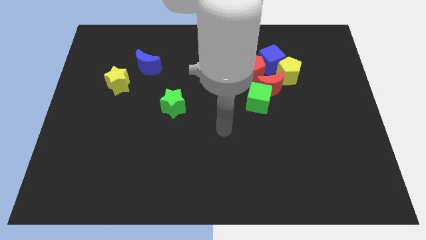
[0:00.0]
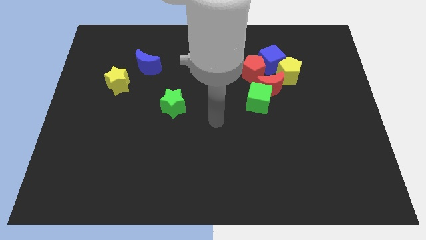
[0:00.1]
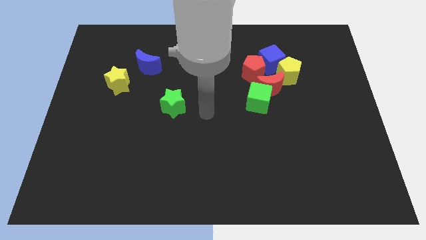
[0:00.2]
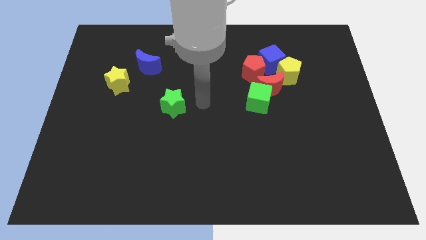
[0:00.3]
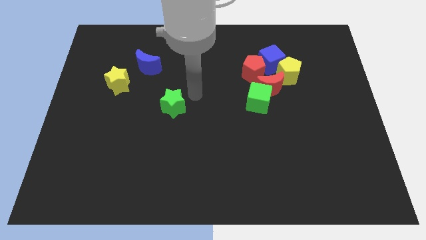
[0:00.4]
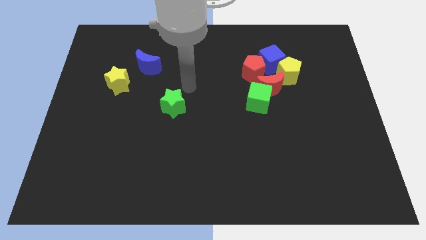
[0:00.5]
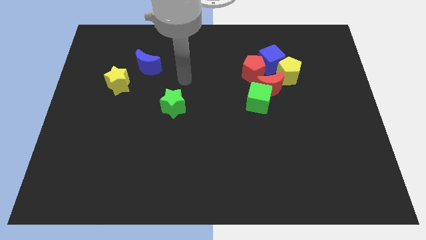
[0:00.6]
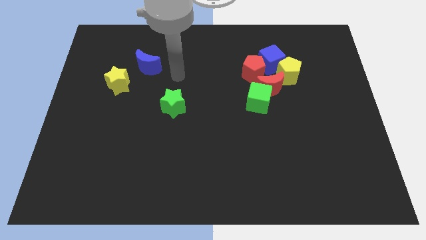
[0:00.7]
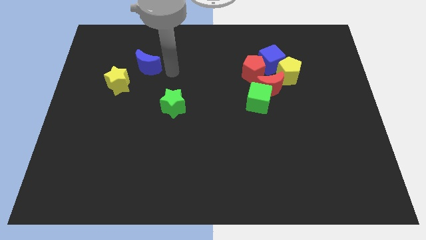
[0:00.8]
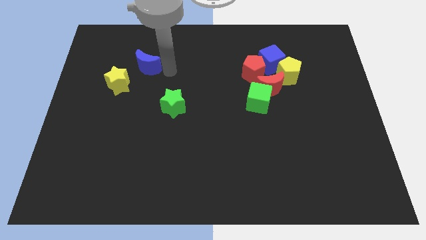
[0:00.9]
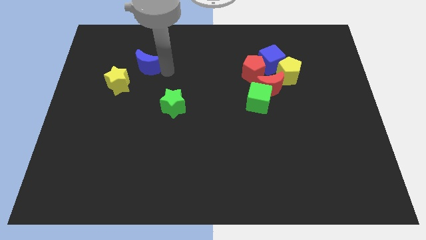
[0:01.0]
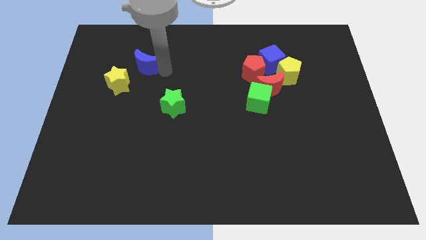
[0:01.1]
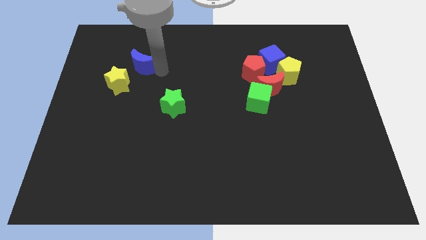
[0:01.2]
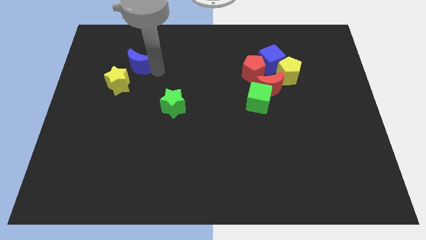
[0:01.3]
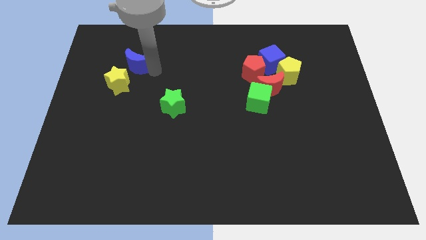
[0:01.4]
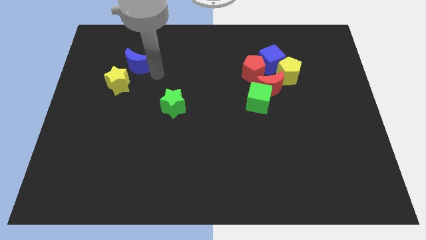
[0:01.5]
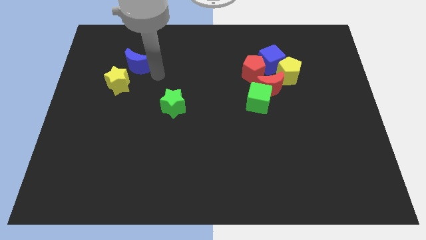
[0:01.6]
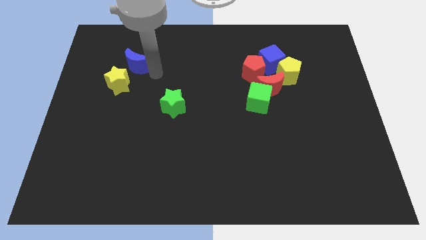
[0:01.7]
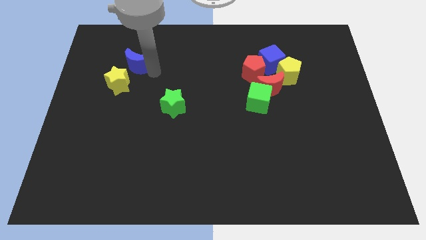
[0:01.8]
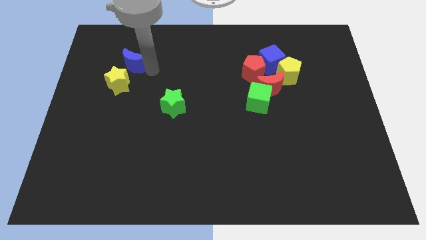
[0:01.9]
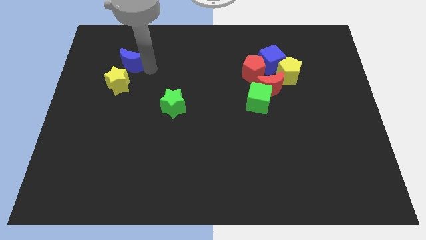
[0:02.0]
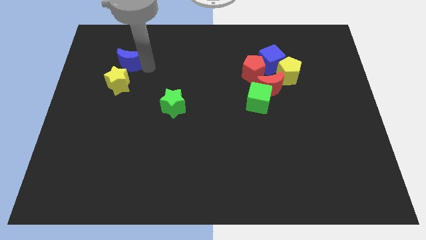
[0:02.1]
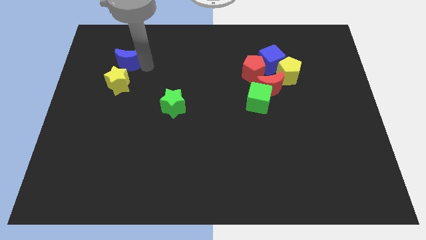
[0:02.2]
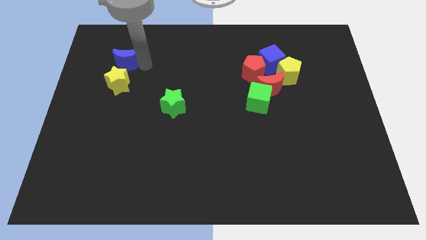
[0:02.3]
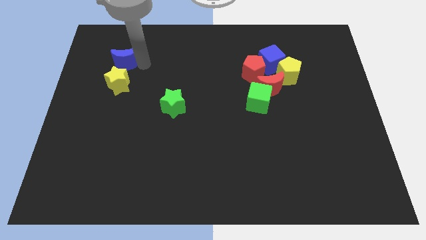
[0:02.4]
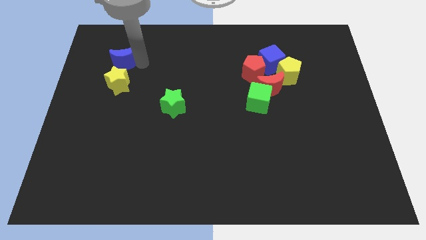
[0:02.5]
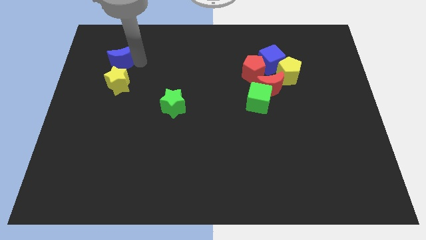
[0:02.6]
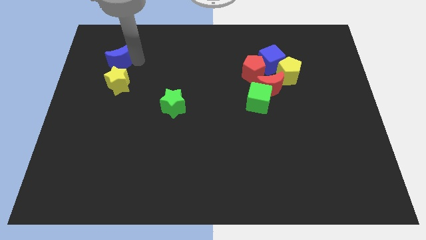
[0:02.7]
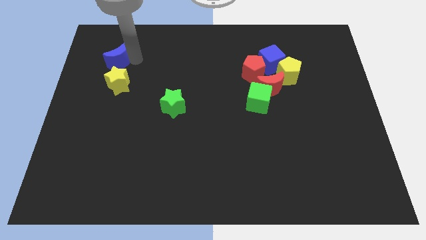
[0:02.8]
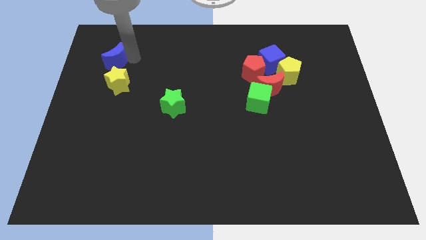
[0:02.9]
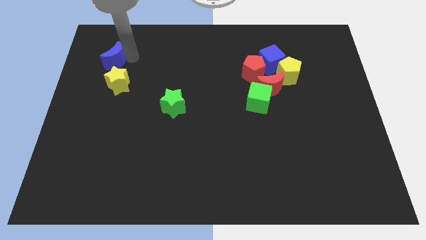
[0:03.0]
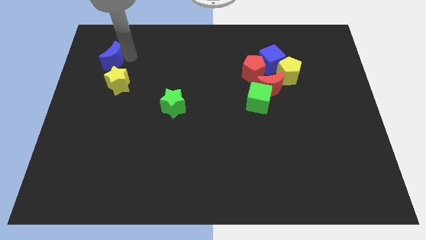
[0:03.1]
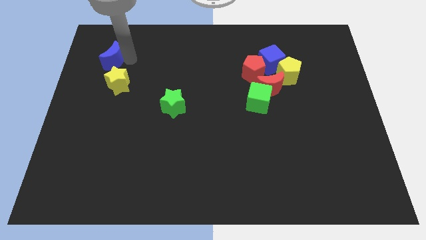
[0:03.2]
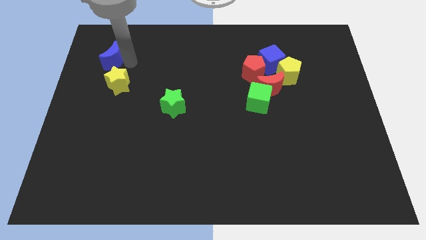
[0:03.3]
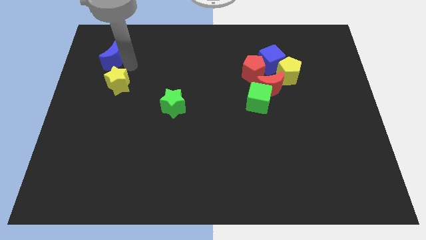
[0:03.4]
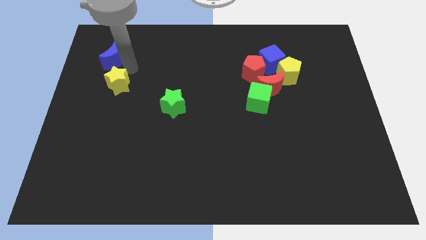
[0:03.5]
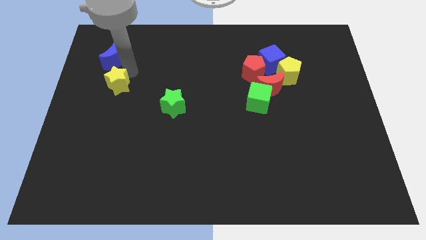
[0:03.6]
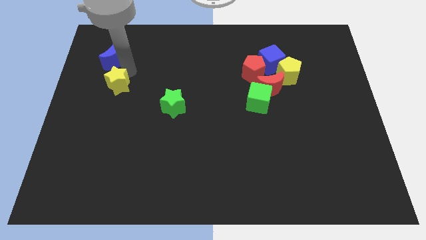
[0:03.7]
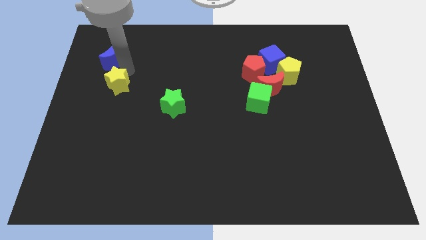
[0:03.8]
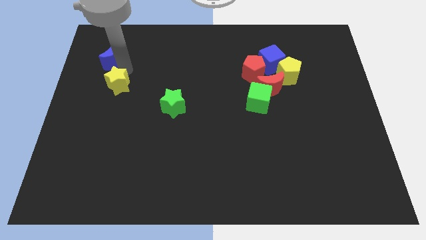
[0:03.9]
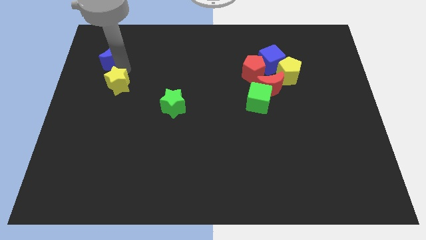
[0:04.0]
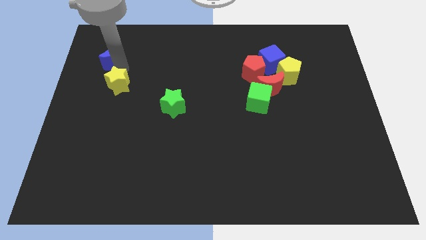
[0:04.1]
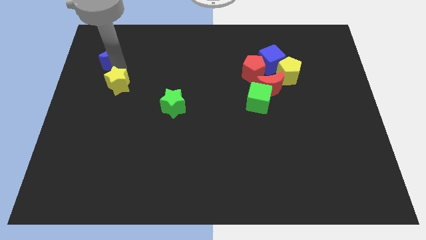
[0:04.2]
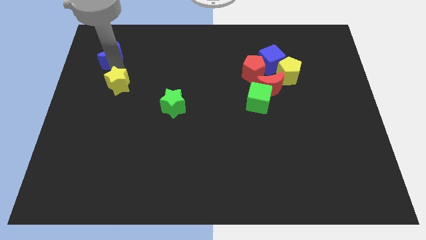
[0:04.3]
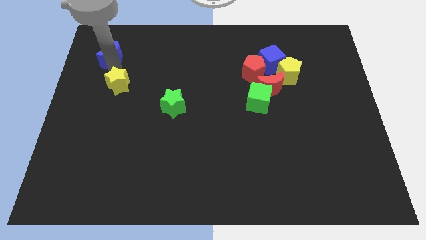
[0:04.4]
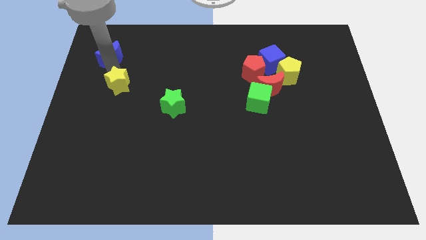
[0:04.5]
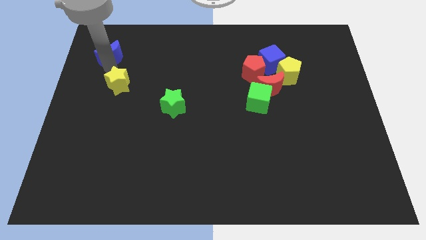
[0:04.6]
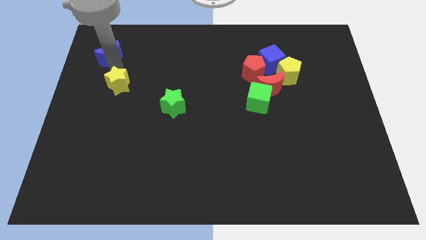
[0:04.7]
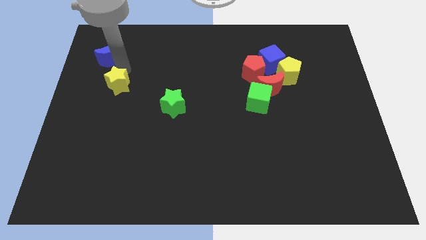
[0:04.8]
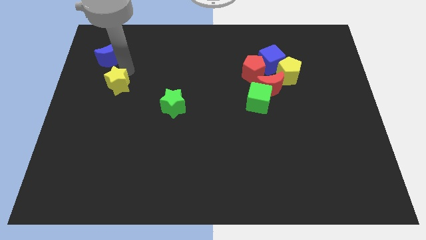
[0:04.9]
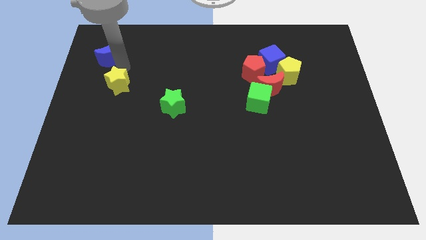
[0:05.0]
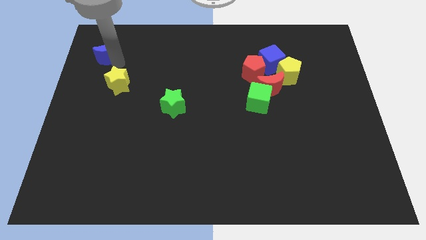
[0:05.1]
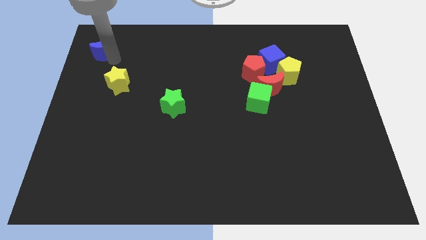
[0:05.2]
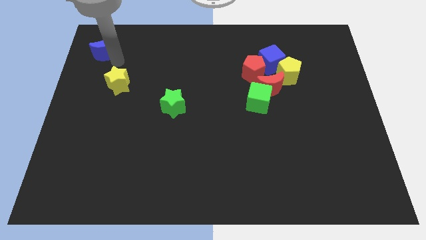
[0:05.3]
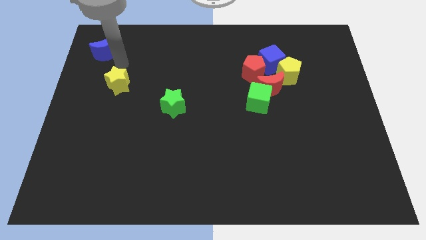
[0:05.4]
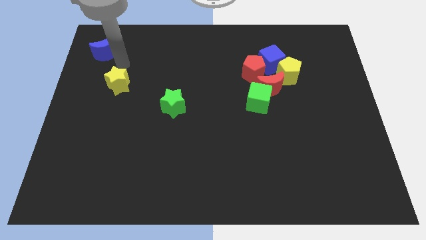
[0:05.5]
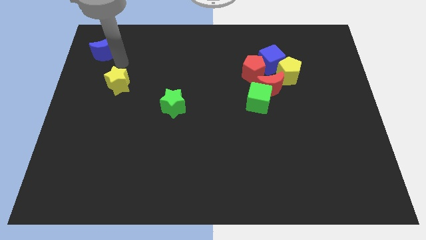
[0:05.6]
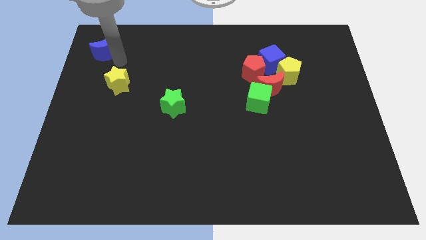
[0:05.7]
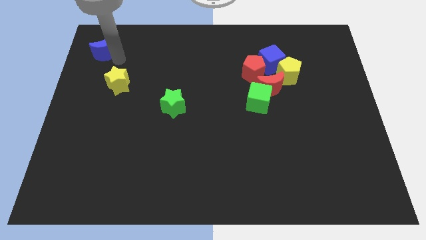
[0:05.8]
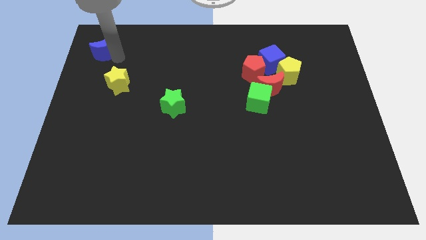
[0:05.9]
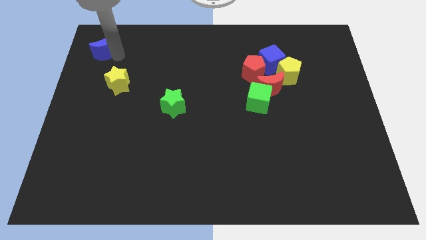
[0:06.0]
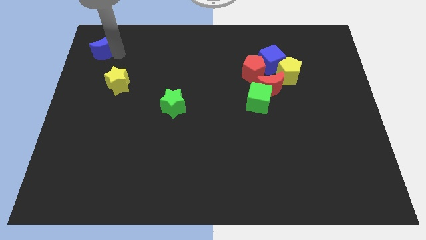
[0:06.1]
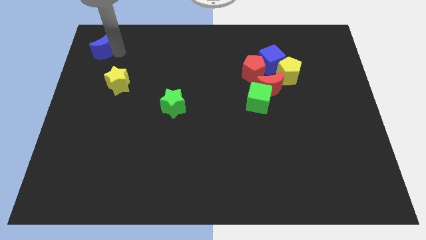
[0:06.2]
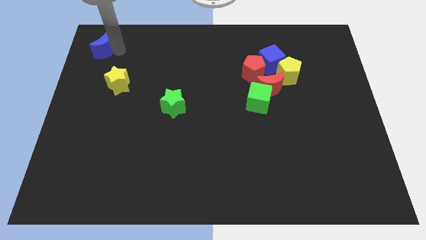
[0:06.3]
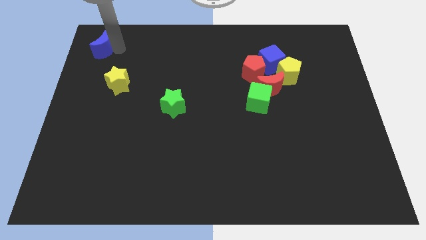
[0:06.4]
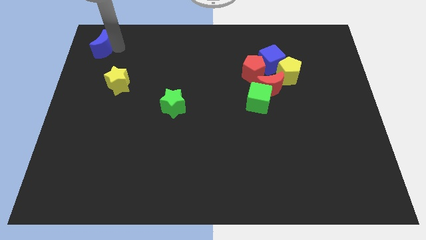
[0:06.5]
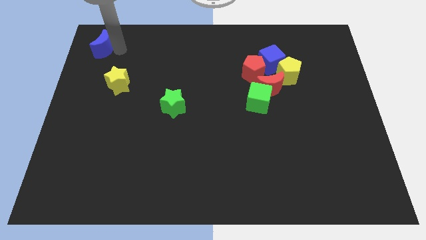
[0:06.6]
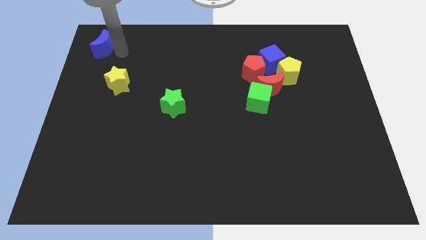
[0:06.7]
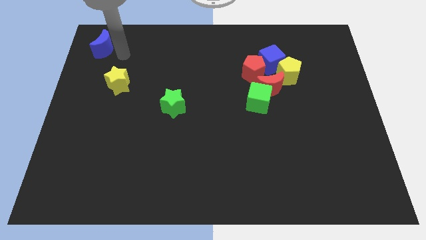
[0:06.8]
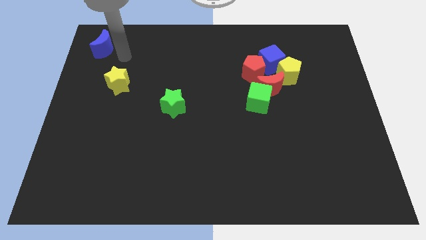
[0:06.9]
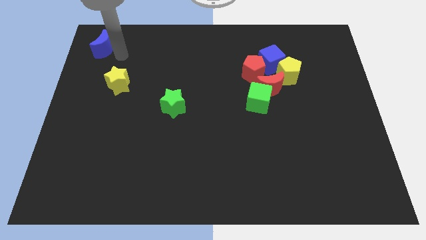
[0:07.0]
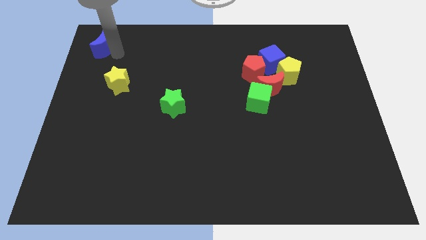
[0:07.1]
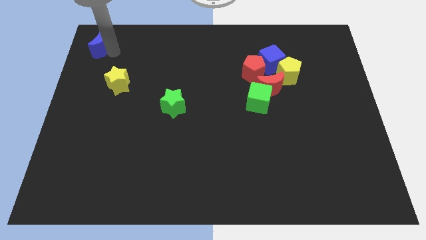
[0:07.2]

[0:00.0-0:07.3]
push the blue moon to the top left corner
